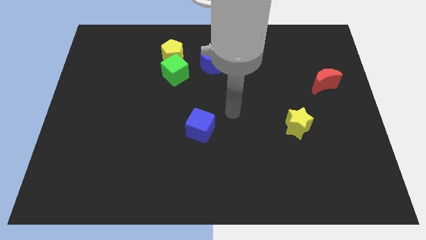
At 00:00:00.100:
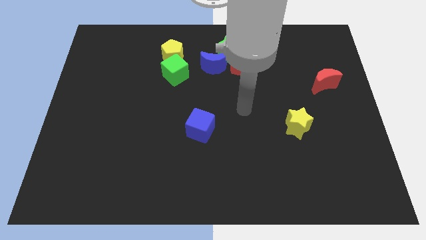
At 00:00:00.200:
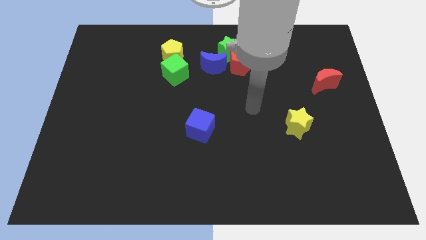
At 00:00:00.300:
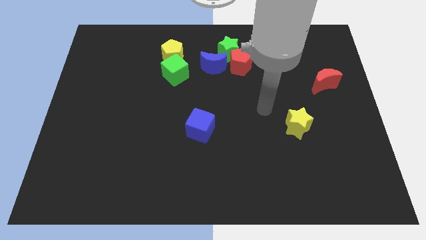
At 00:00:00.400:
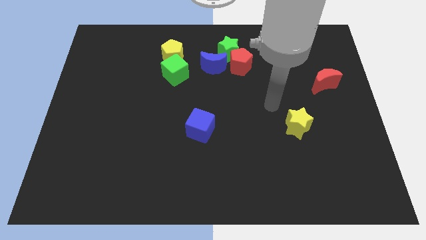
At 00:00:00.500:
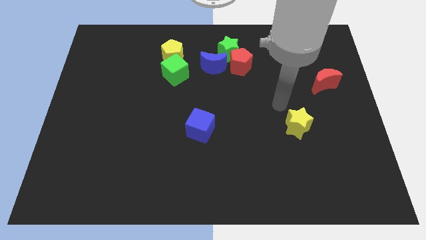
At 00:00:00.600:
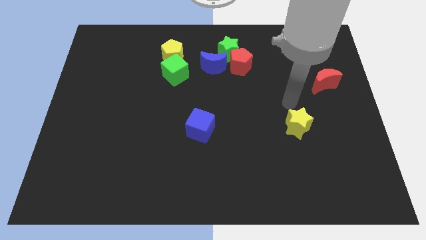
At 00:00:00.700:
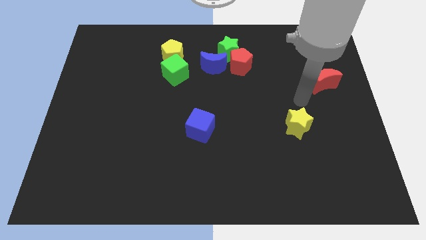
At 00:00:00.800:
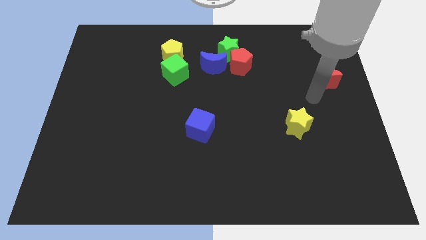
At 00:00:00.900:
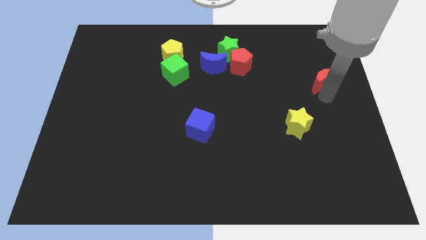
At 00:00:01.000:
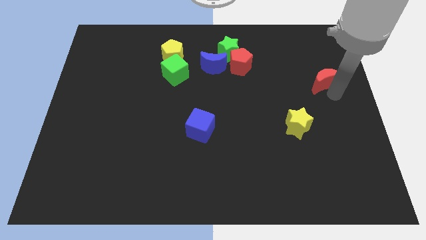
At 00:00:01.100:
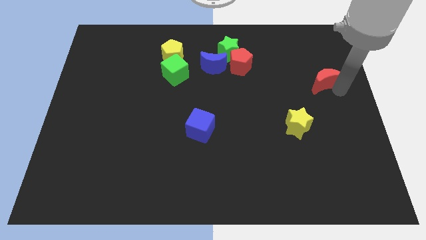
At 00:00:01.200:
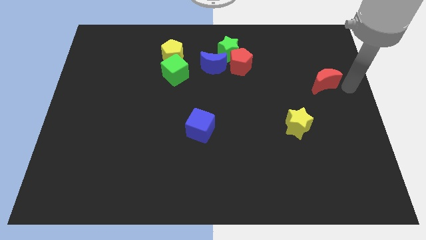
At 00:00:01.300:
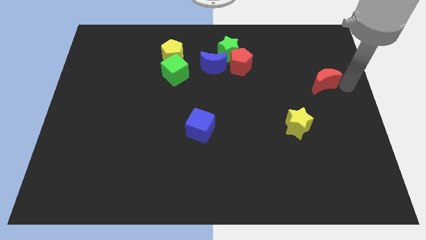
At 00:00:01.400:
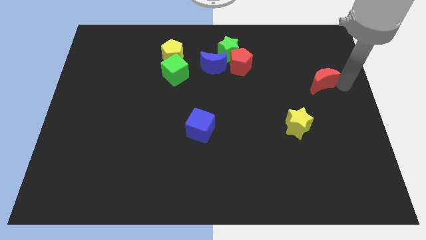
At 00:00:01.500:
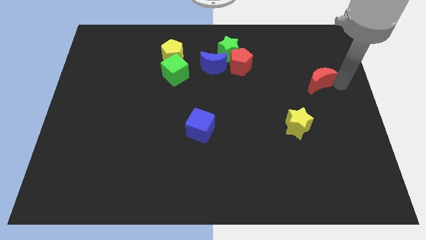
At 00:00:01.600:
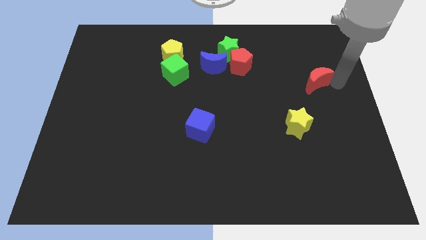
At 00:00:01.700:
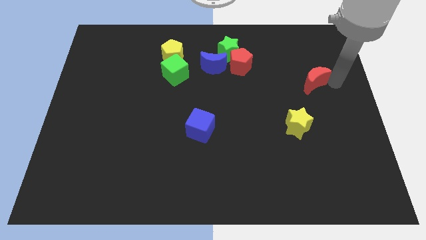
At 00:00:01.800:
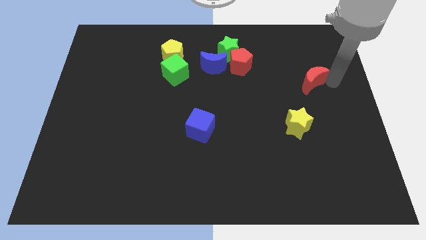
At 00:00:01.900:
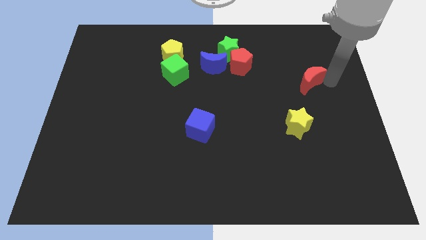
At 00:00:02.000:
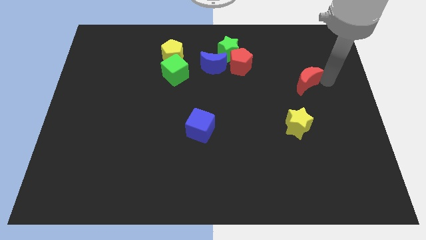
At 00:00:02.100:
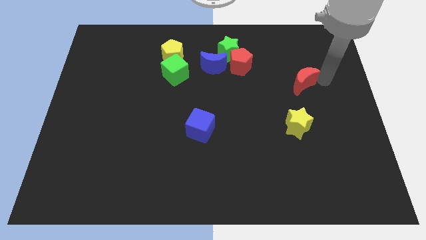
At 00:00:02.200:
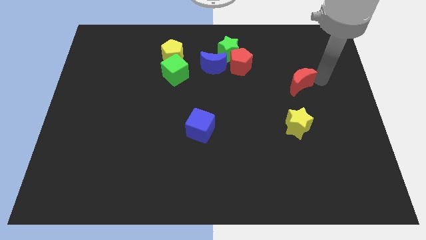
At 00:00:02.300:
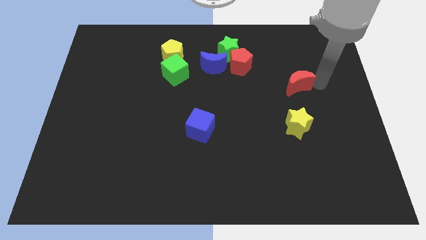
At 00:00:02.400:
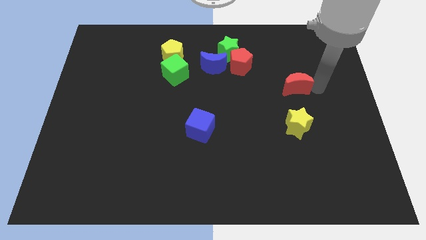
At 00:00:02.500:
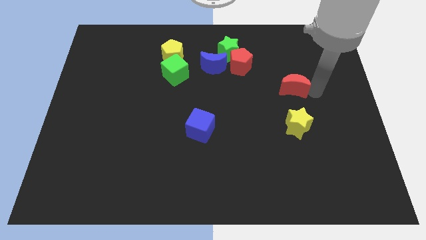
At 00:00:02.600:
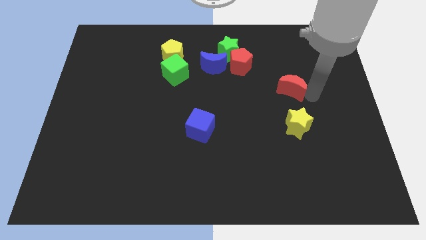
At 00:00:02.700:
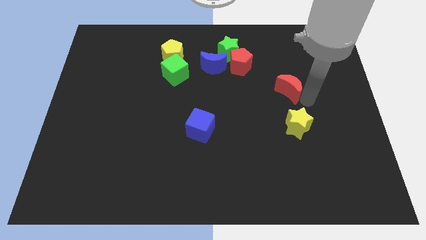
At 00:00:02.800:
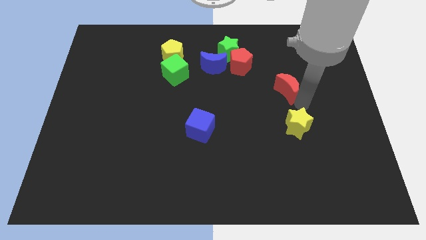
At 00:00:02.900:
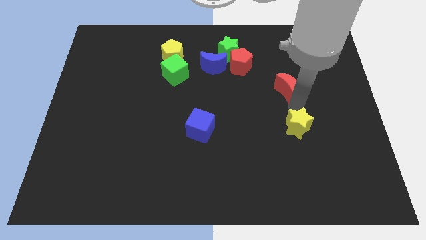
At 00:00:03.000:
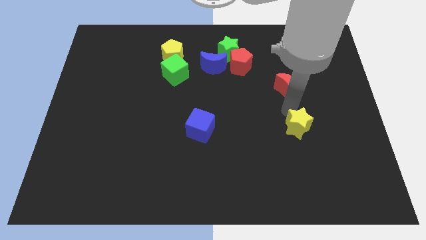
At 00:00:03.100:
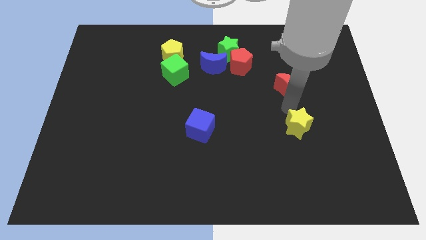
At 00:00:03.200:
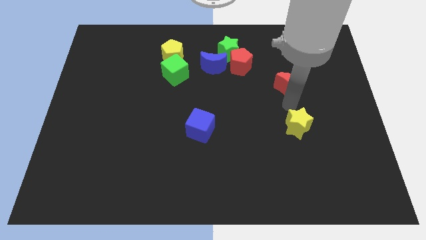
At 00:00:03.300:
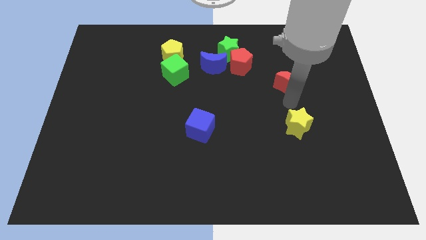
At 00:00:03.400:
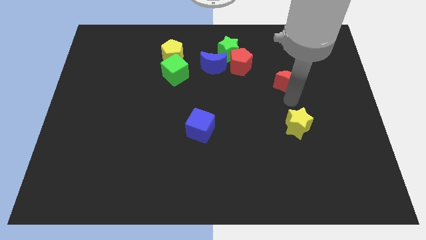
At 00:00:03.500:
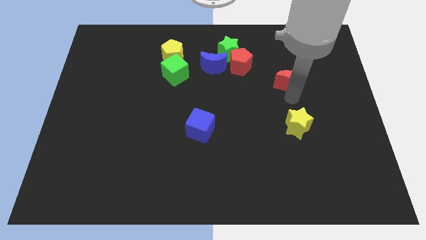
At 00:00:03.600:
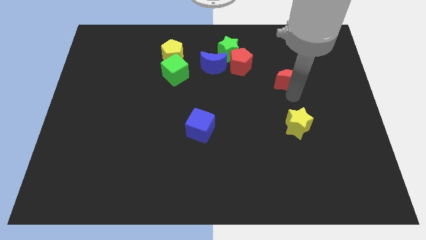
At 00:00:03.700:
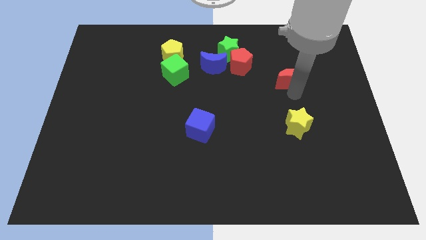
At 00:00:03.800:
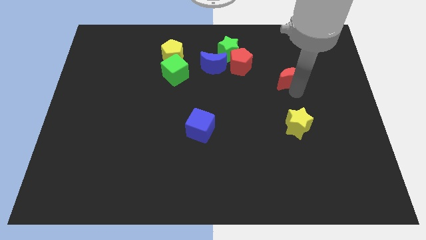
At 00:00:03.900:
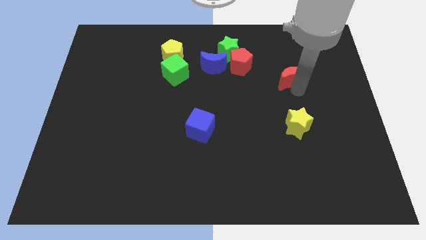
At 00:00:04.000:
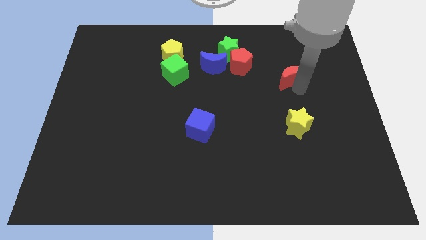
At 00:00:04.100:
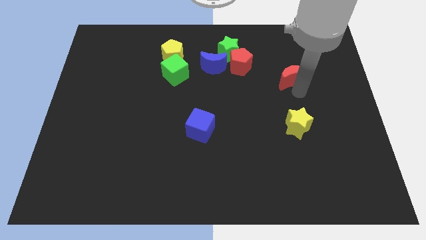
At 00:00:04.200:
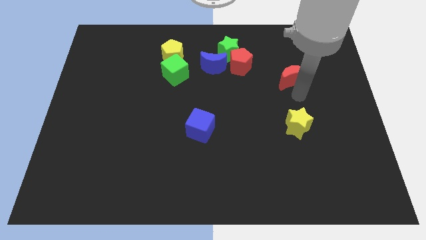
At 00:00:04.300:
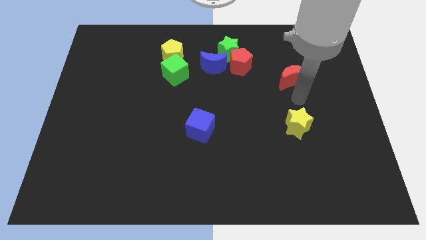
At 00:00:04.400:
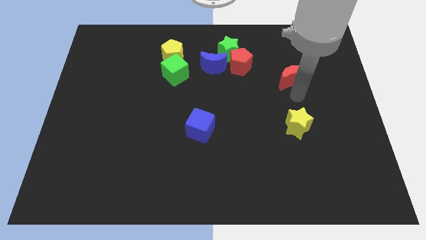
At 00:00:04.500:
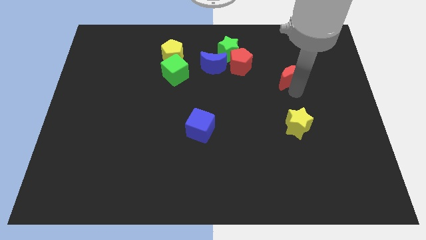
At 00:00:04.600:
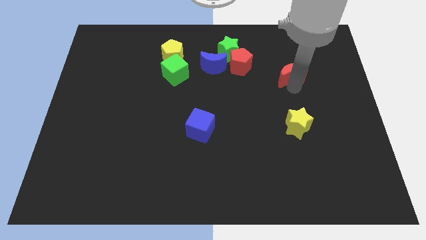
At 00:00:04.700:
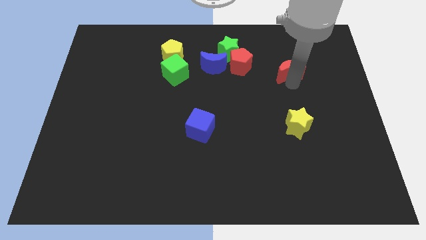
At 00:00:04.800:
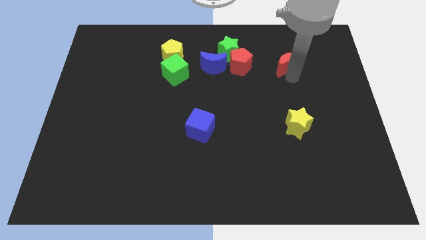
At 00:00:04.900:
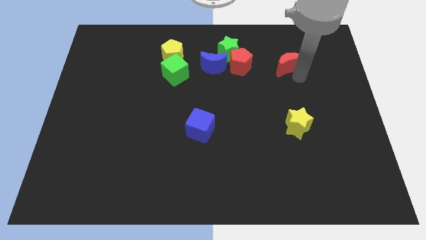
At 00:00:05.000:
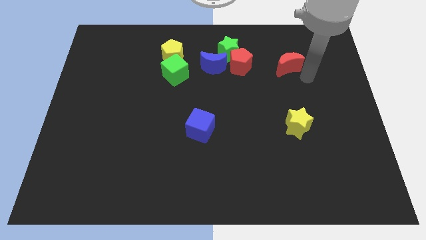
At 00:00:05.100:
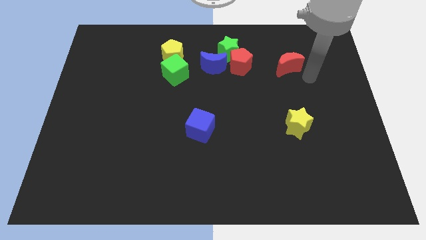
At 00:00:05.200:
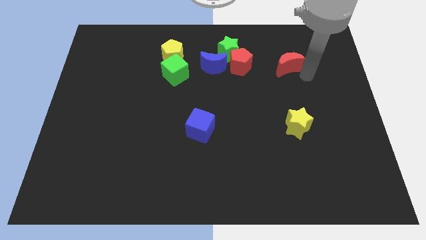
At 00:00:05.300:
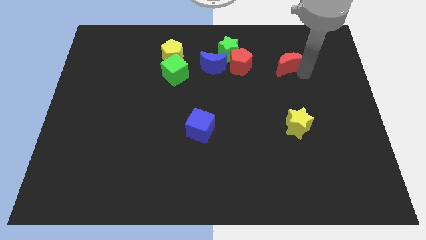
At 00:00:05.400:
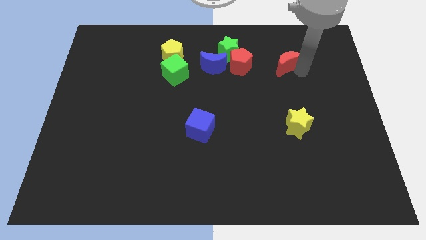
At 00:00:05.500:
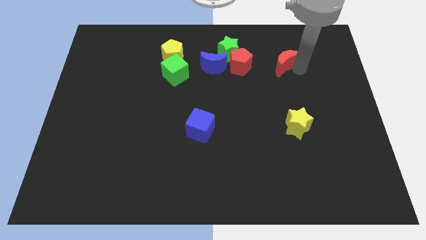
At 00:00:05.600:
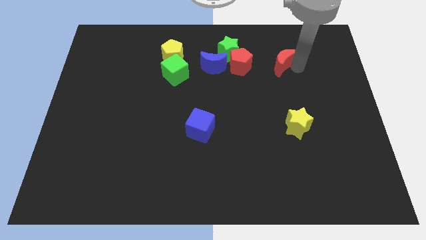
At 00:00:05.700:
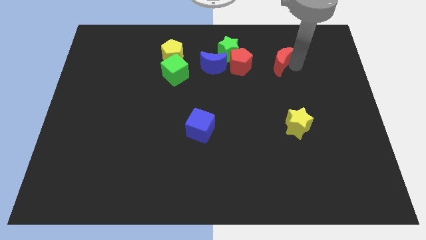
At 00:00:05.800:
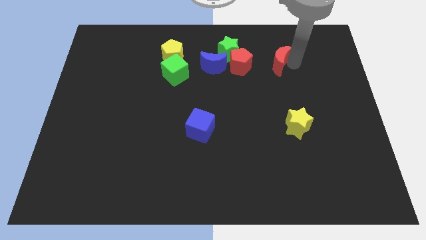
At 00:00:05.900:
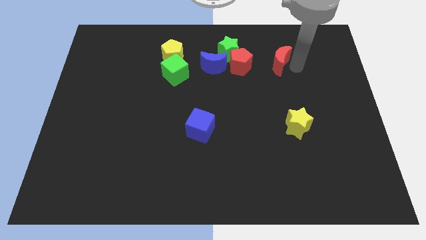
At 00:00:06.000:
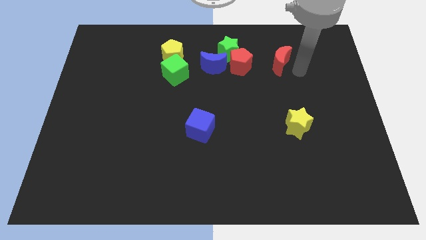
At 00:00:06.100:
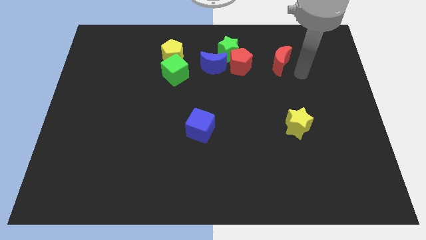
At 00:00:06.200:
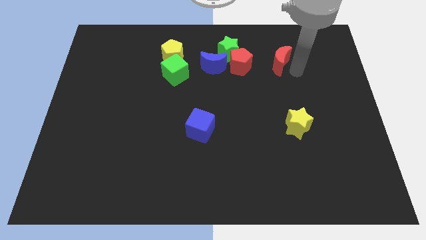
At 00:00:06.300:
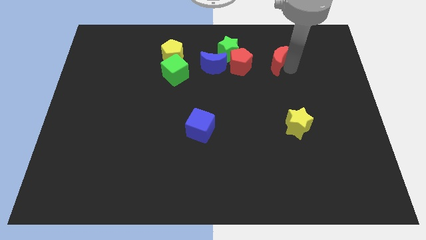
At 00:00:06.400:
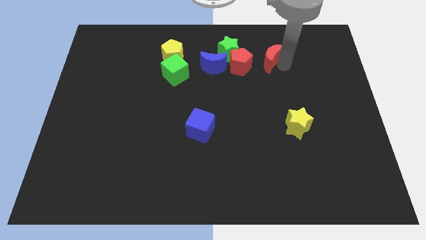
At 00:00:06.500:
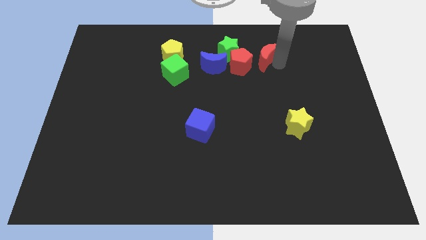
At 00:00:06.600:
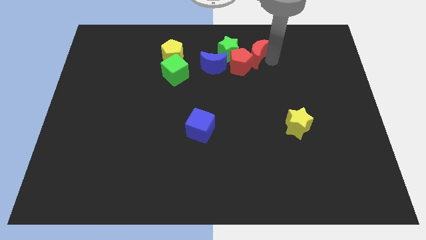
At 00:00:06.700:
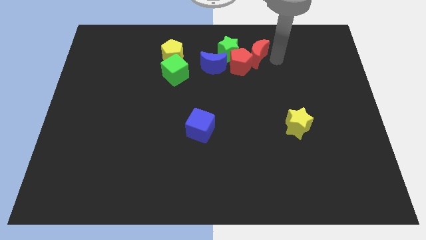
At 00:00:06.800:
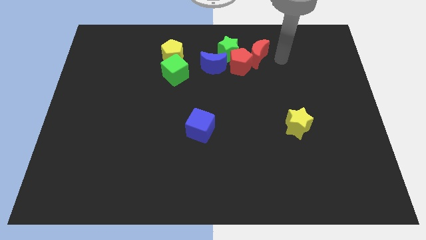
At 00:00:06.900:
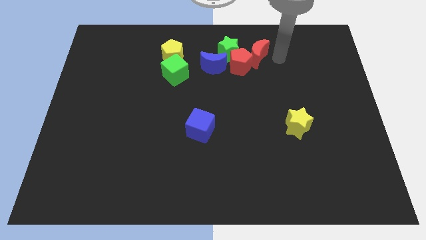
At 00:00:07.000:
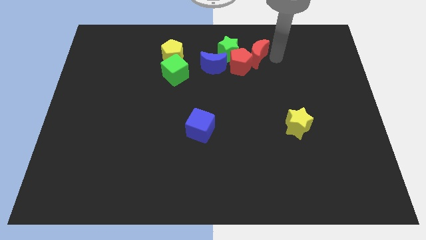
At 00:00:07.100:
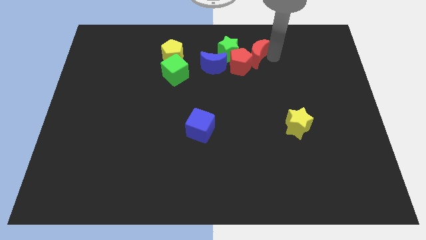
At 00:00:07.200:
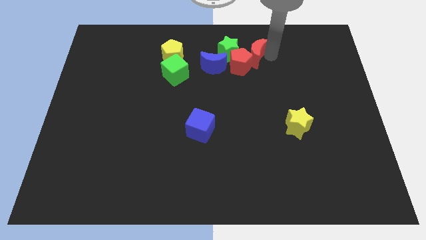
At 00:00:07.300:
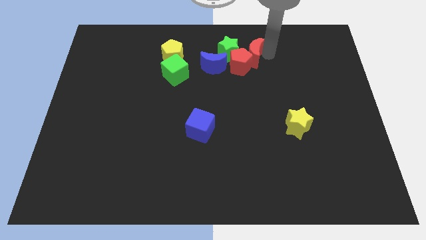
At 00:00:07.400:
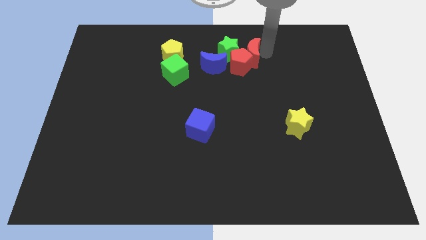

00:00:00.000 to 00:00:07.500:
slide the red moon next to the green star
